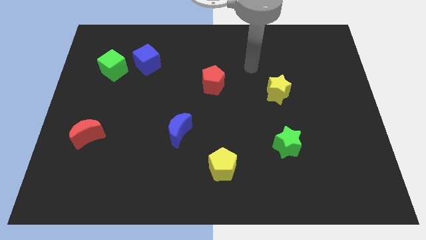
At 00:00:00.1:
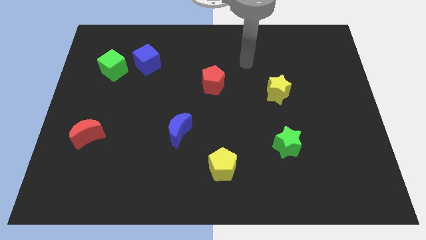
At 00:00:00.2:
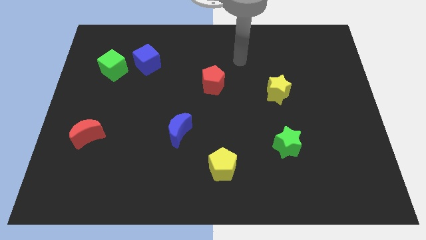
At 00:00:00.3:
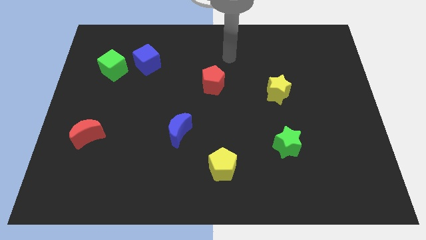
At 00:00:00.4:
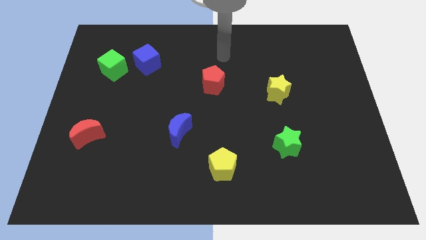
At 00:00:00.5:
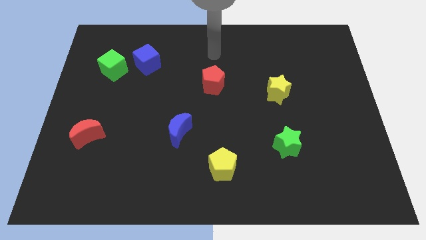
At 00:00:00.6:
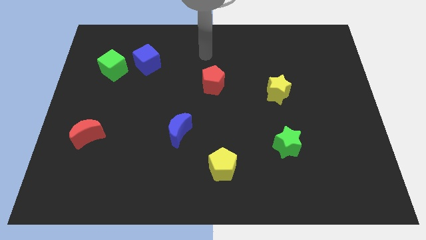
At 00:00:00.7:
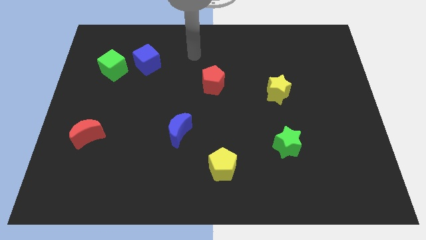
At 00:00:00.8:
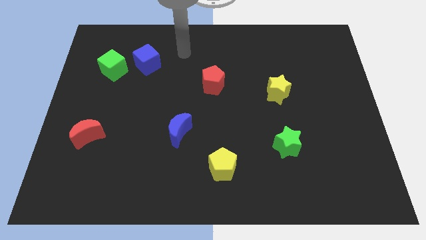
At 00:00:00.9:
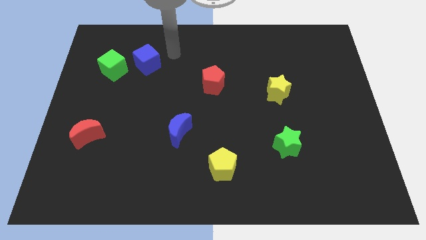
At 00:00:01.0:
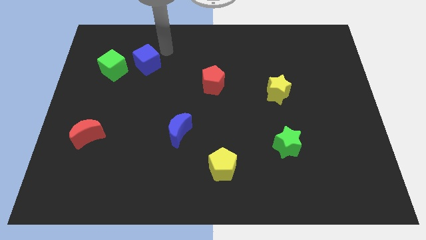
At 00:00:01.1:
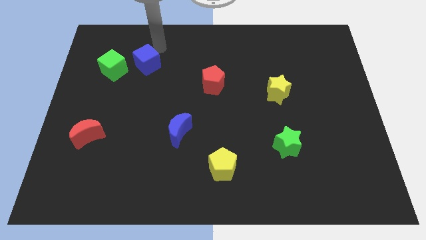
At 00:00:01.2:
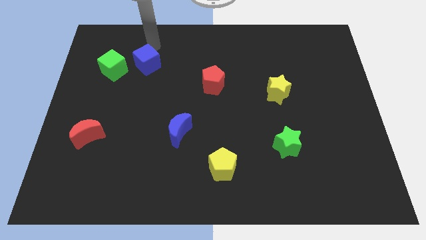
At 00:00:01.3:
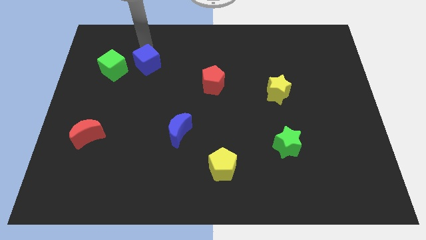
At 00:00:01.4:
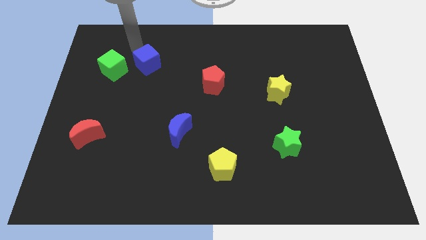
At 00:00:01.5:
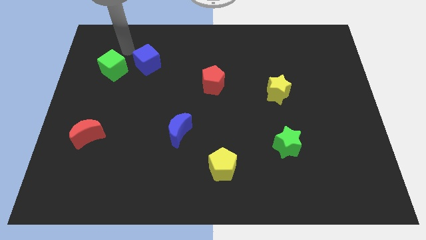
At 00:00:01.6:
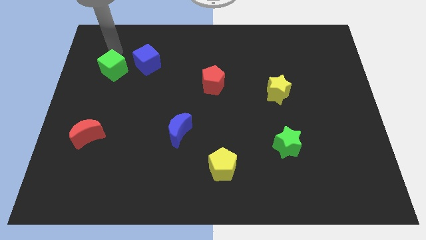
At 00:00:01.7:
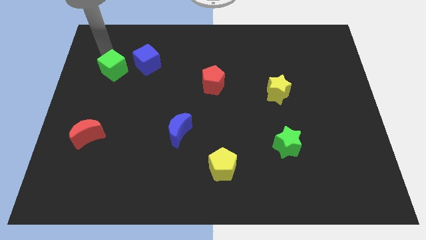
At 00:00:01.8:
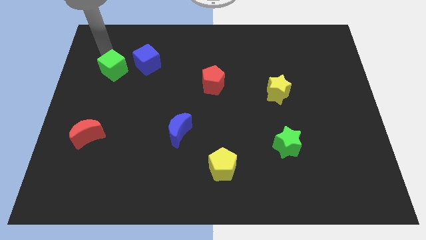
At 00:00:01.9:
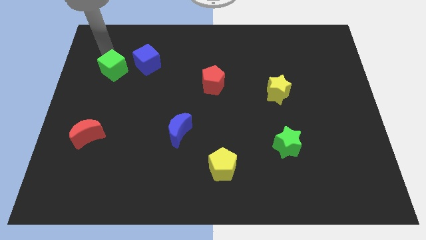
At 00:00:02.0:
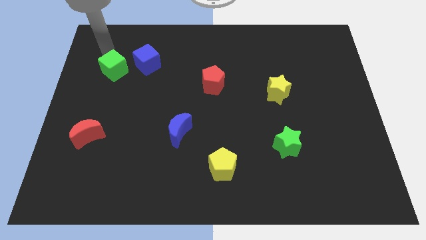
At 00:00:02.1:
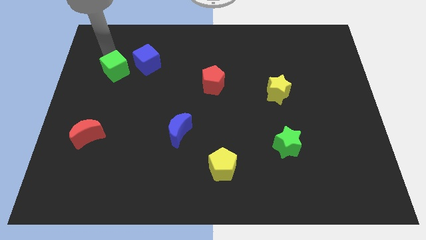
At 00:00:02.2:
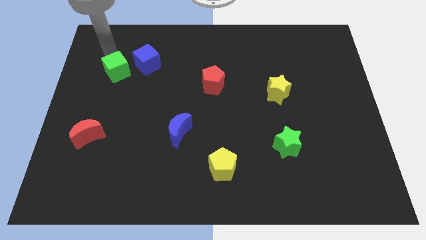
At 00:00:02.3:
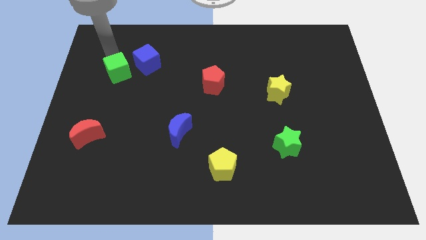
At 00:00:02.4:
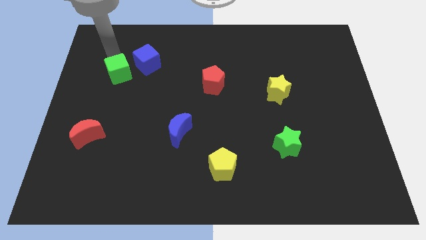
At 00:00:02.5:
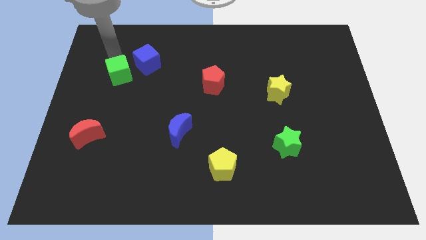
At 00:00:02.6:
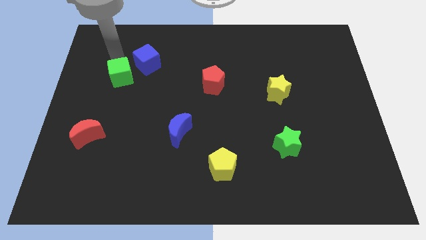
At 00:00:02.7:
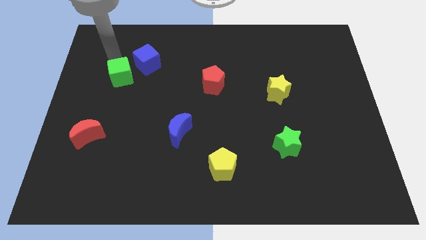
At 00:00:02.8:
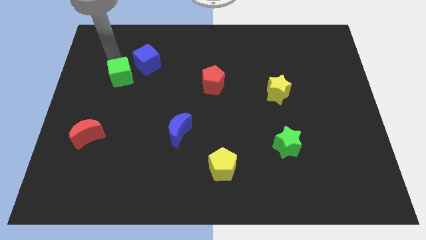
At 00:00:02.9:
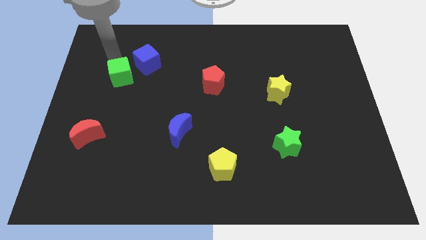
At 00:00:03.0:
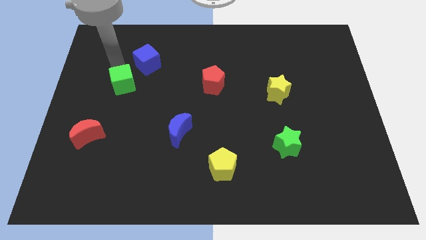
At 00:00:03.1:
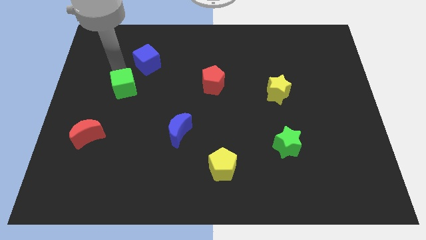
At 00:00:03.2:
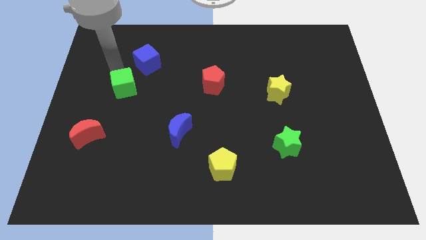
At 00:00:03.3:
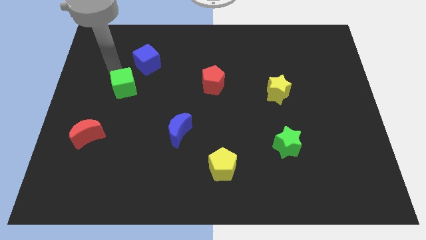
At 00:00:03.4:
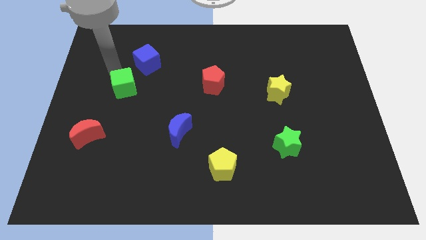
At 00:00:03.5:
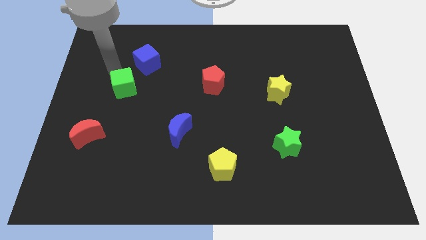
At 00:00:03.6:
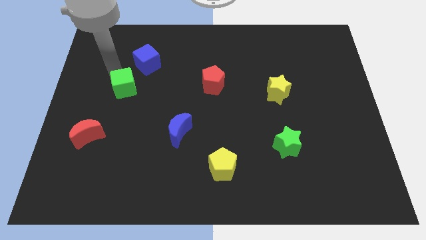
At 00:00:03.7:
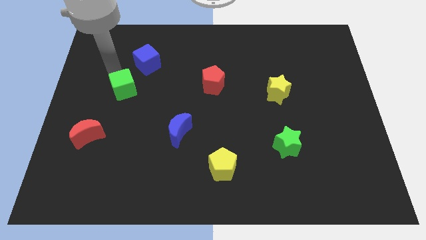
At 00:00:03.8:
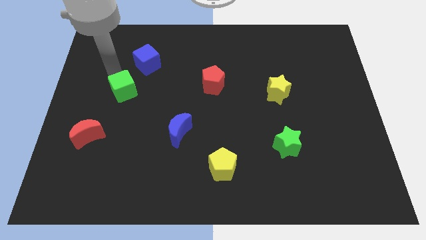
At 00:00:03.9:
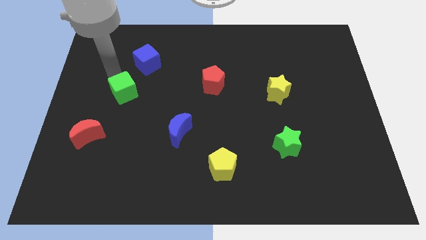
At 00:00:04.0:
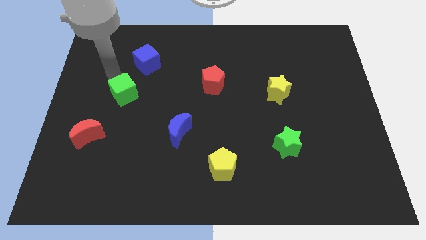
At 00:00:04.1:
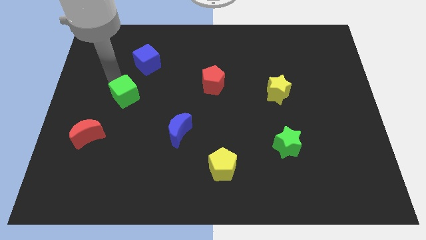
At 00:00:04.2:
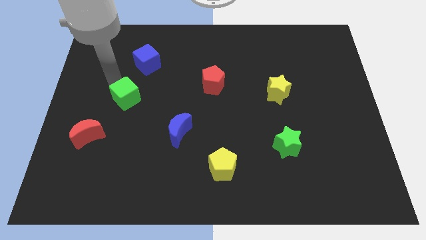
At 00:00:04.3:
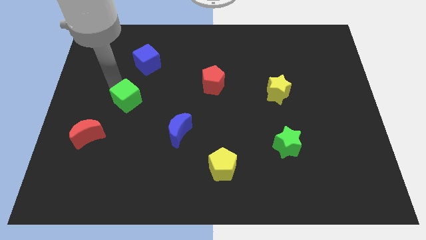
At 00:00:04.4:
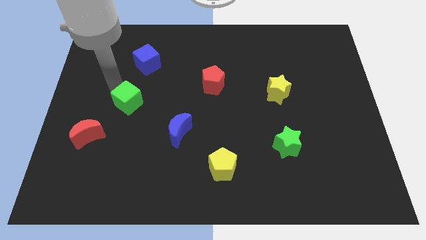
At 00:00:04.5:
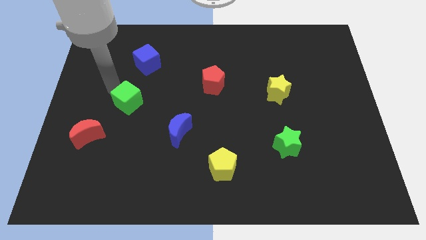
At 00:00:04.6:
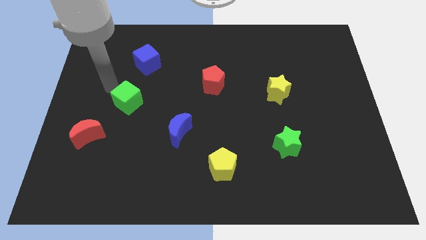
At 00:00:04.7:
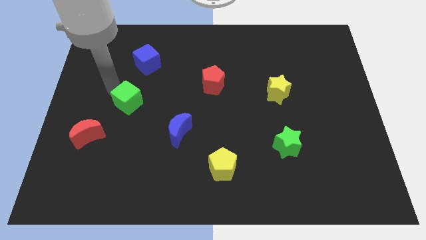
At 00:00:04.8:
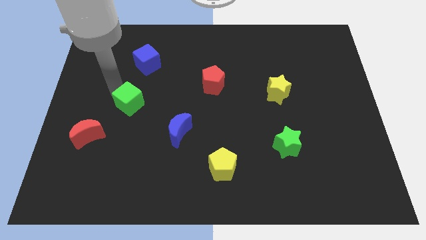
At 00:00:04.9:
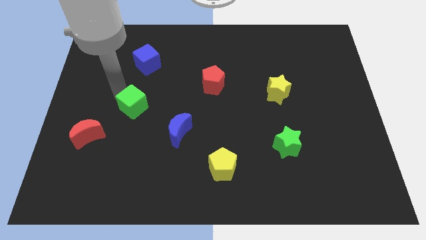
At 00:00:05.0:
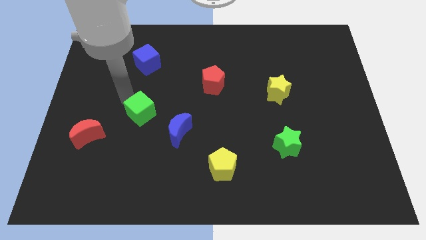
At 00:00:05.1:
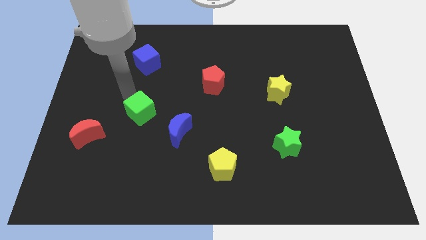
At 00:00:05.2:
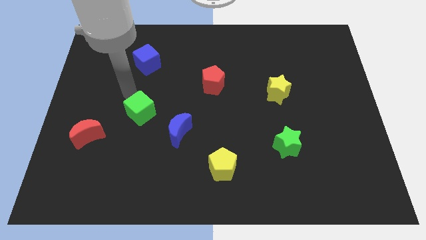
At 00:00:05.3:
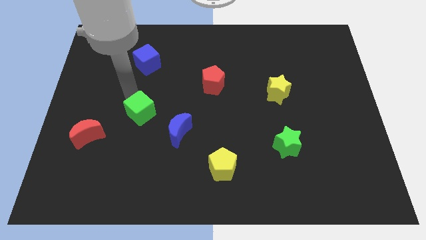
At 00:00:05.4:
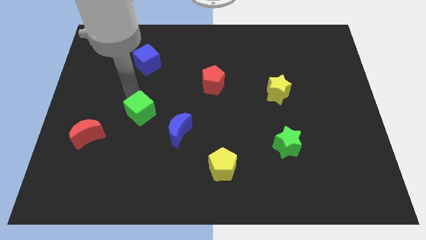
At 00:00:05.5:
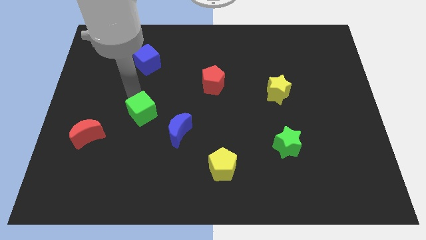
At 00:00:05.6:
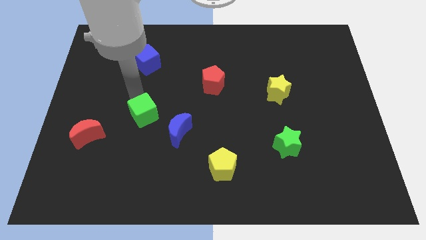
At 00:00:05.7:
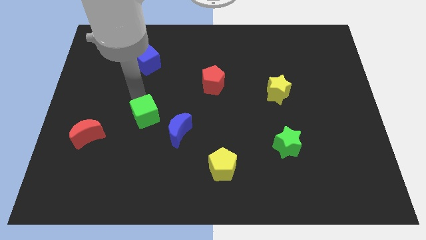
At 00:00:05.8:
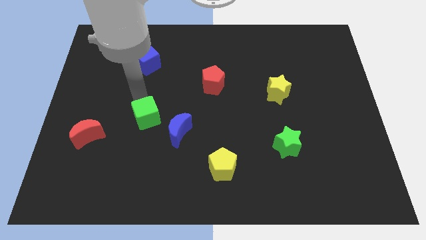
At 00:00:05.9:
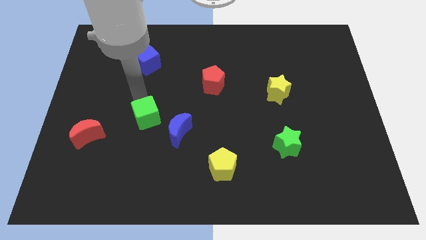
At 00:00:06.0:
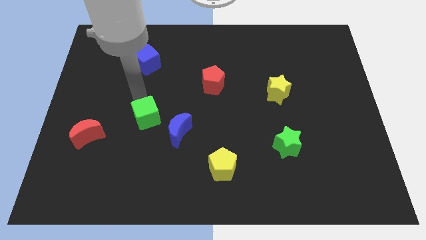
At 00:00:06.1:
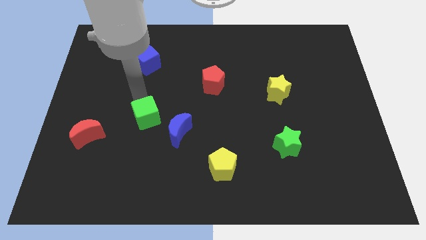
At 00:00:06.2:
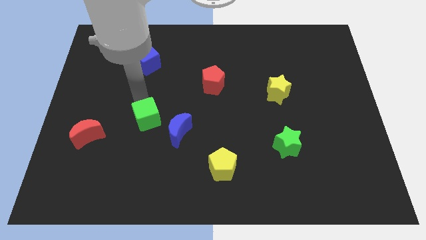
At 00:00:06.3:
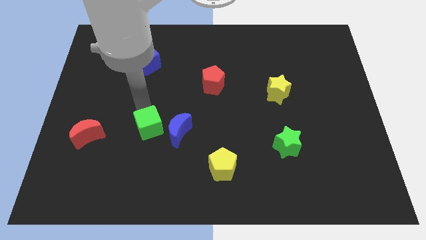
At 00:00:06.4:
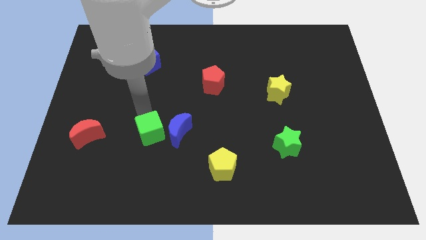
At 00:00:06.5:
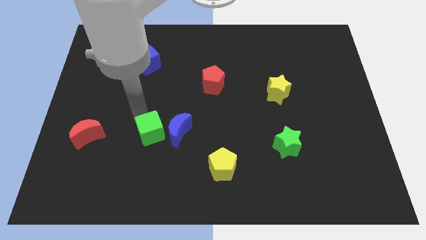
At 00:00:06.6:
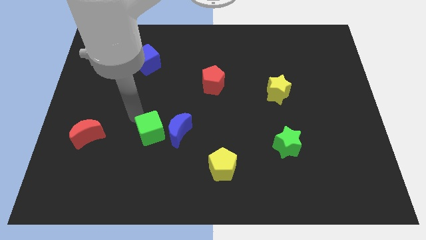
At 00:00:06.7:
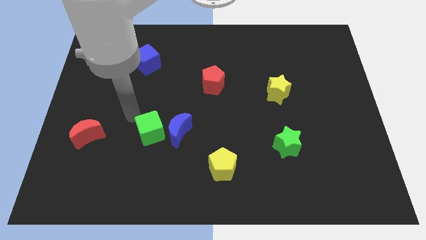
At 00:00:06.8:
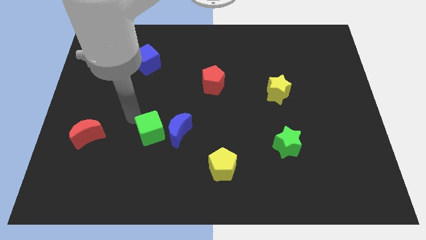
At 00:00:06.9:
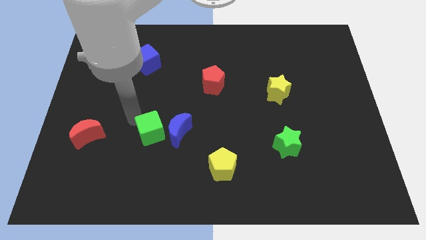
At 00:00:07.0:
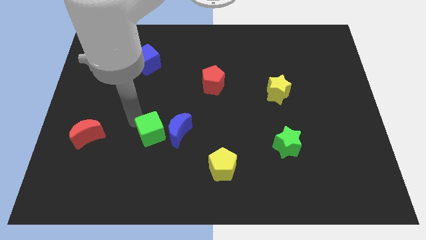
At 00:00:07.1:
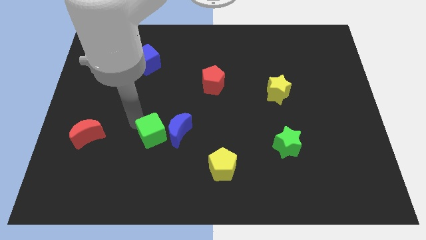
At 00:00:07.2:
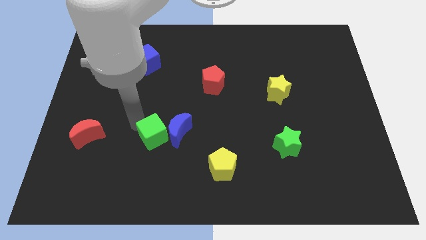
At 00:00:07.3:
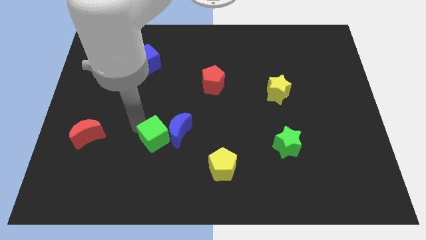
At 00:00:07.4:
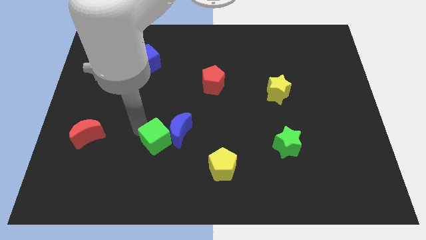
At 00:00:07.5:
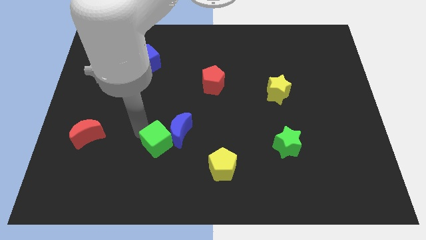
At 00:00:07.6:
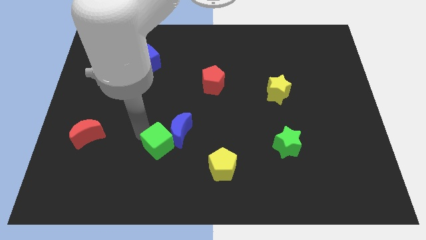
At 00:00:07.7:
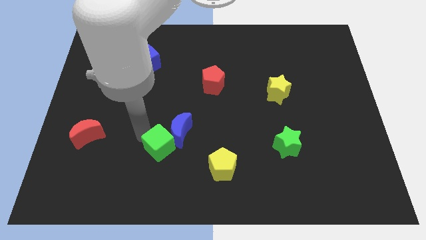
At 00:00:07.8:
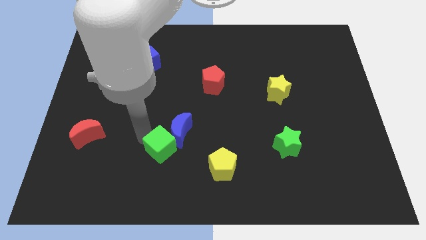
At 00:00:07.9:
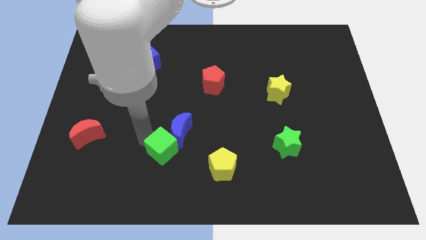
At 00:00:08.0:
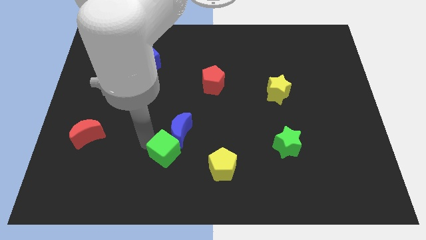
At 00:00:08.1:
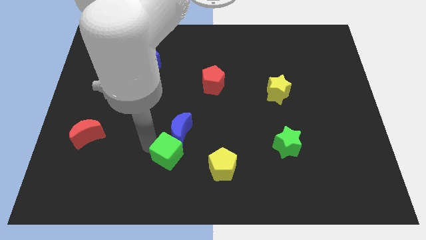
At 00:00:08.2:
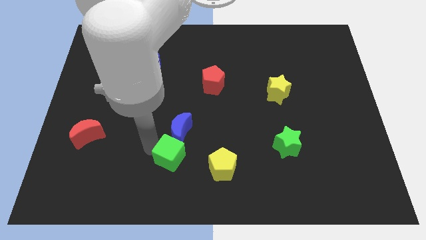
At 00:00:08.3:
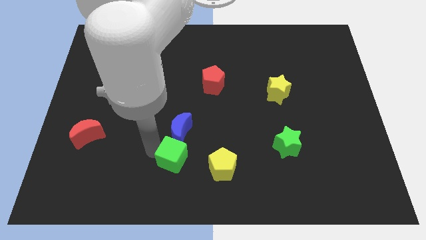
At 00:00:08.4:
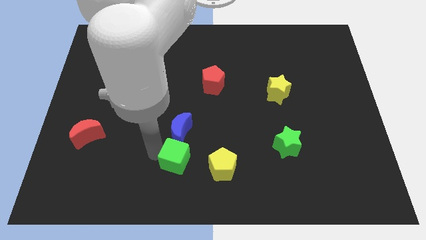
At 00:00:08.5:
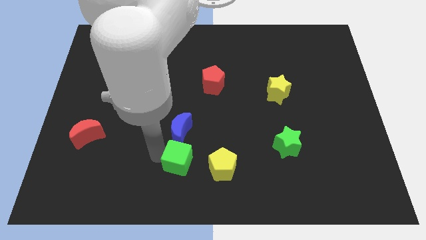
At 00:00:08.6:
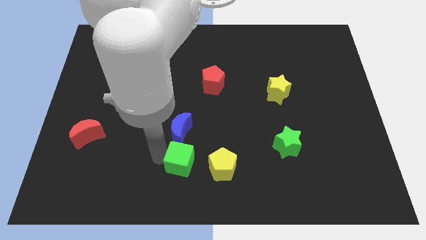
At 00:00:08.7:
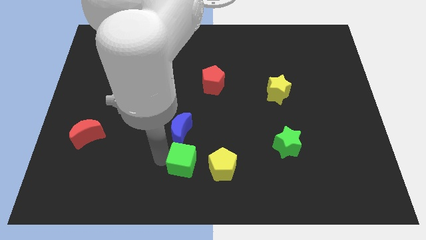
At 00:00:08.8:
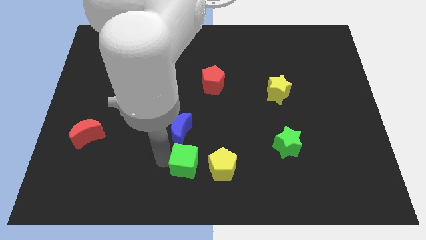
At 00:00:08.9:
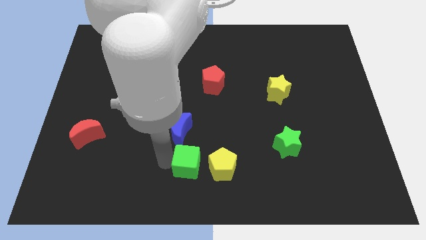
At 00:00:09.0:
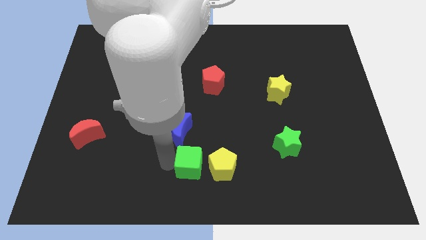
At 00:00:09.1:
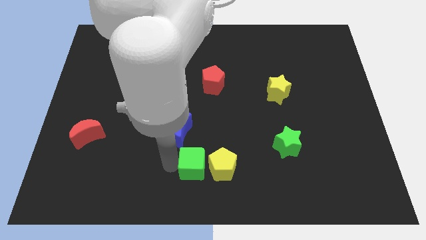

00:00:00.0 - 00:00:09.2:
slide the green cube towards the yellow pentagon
